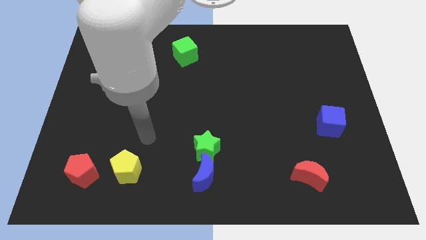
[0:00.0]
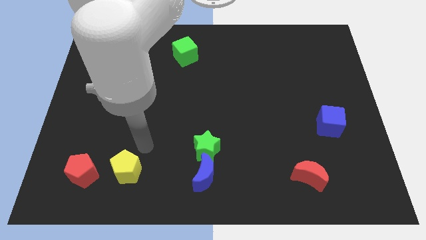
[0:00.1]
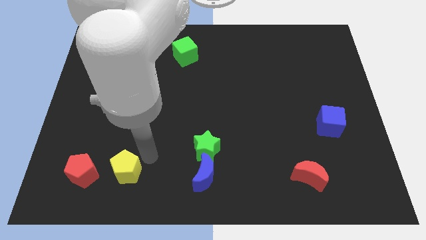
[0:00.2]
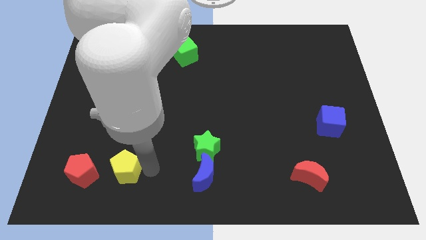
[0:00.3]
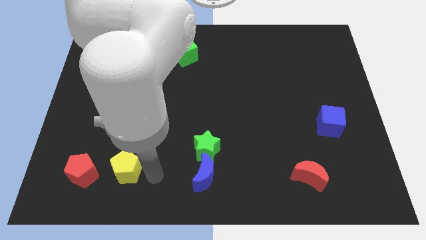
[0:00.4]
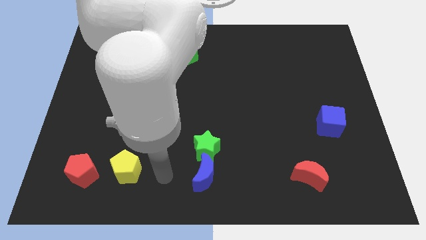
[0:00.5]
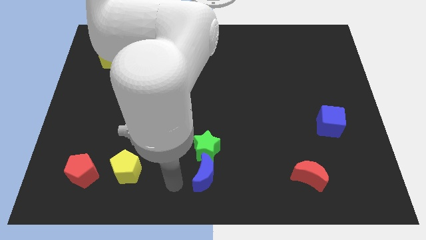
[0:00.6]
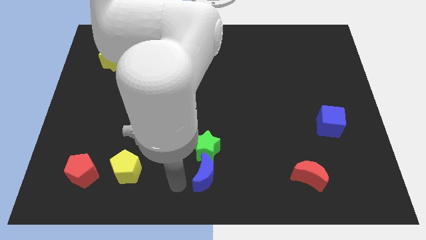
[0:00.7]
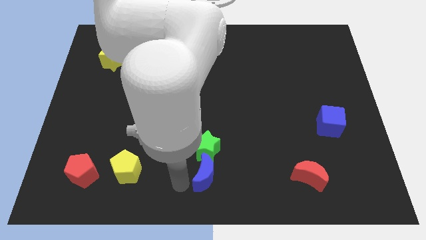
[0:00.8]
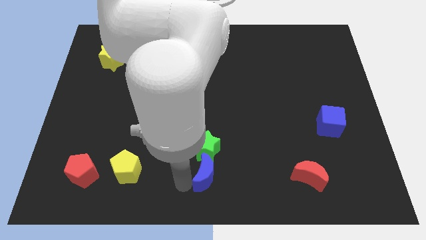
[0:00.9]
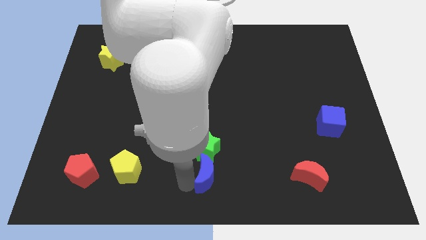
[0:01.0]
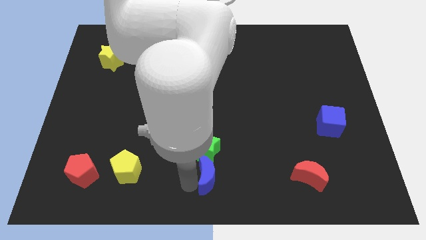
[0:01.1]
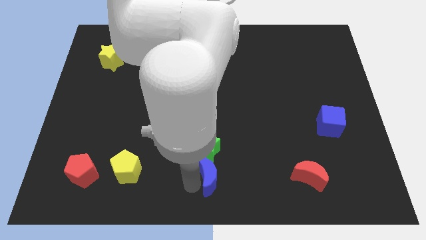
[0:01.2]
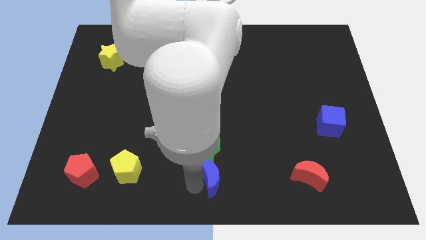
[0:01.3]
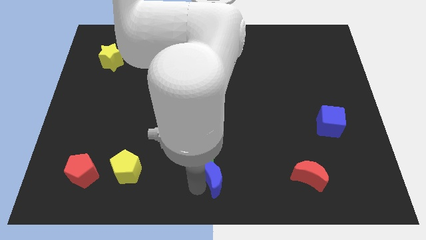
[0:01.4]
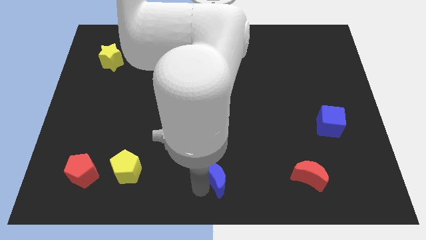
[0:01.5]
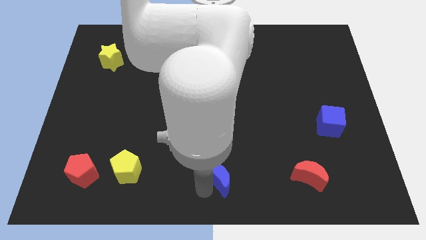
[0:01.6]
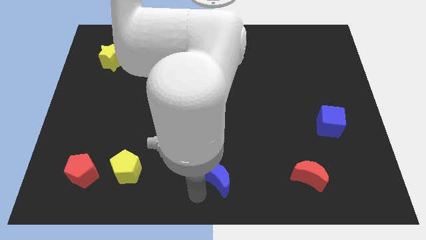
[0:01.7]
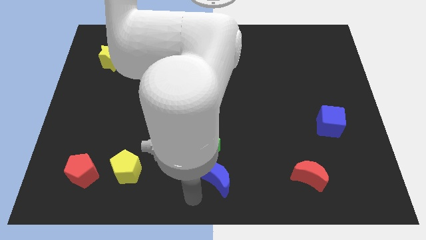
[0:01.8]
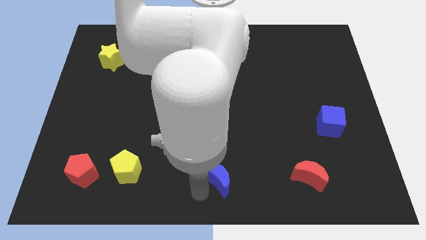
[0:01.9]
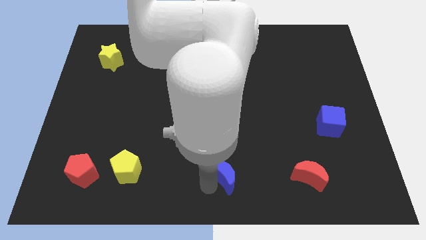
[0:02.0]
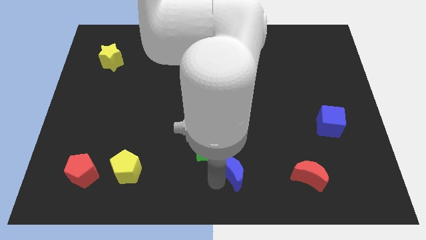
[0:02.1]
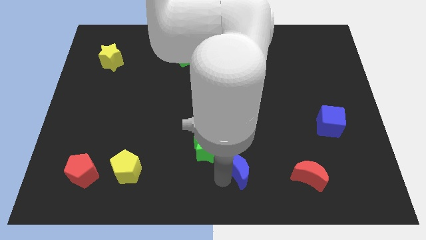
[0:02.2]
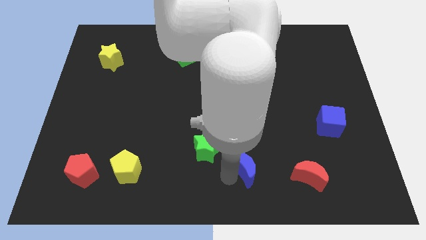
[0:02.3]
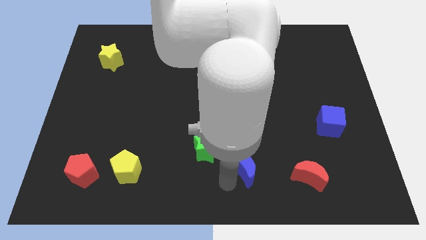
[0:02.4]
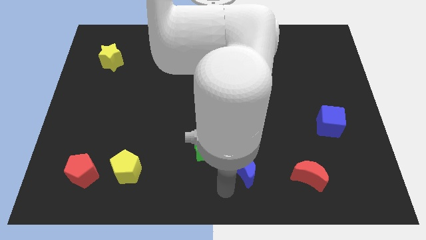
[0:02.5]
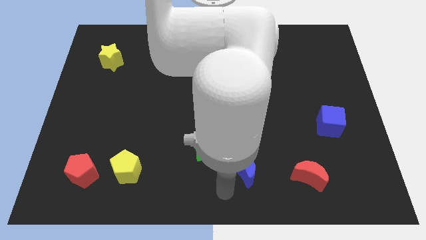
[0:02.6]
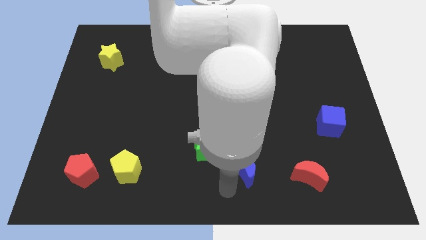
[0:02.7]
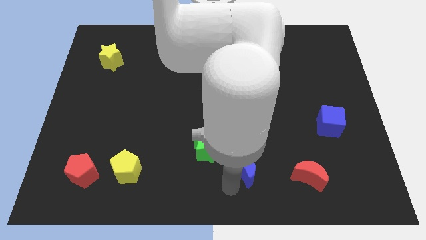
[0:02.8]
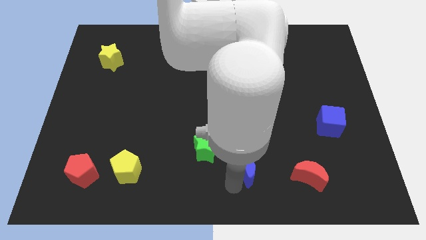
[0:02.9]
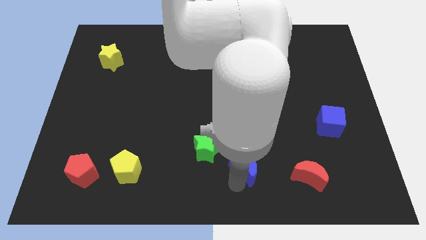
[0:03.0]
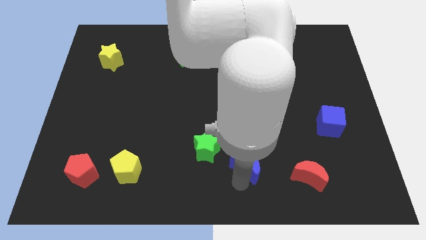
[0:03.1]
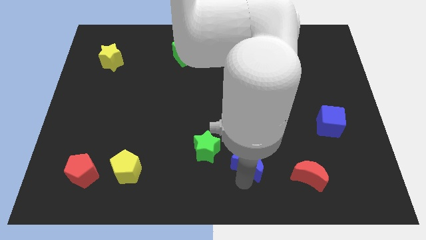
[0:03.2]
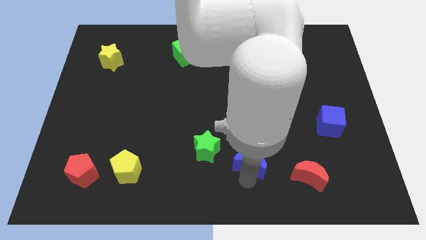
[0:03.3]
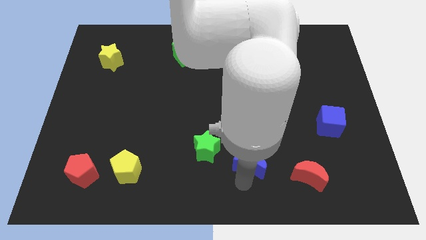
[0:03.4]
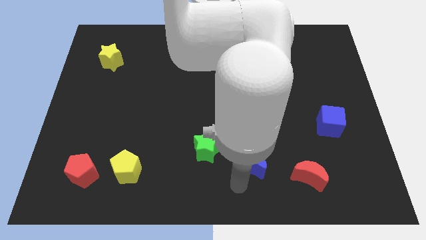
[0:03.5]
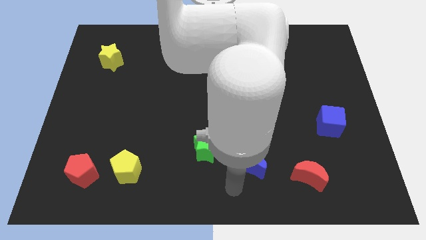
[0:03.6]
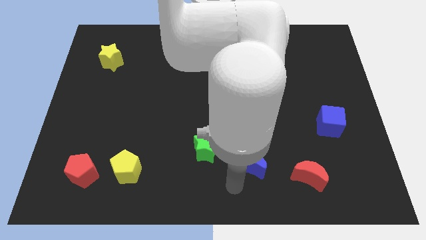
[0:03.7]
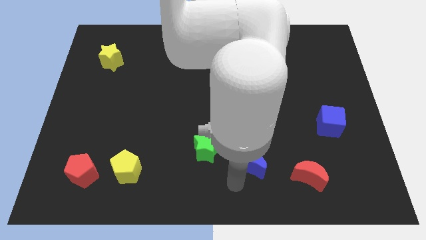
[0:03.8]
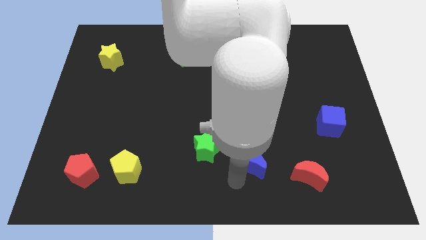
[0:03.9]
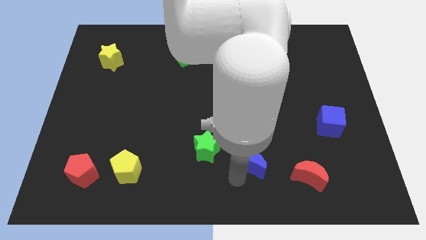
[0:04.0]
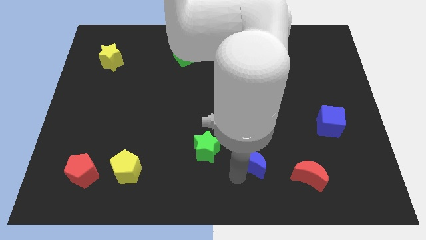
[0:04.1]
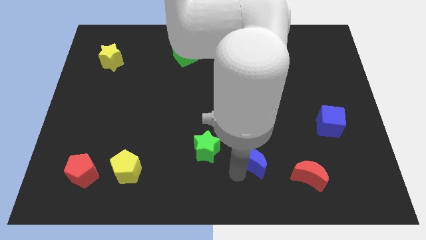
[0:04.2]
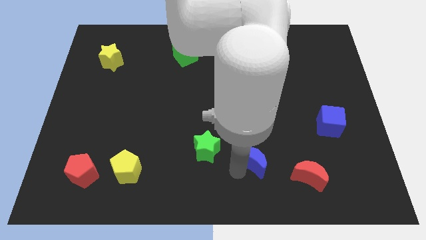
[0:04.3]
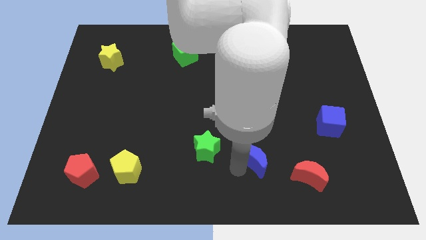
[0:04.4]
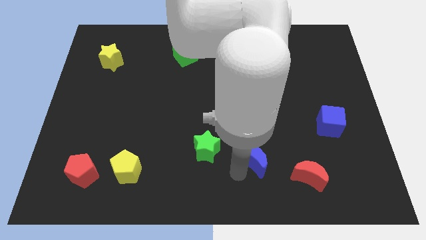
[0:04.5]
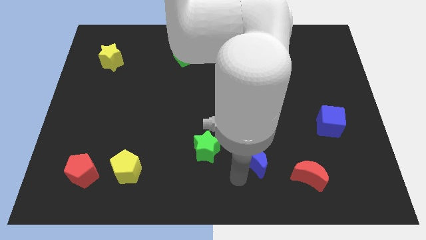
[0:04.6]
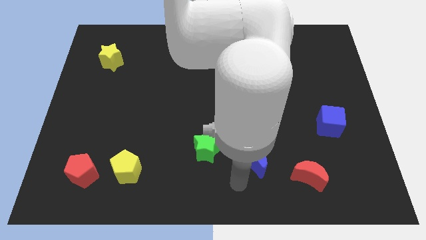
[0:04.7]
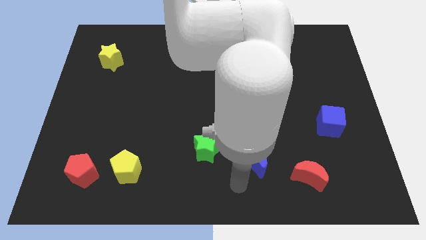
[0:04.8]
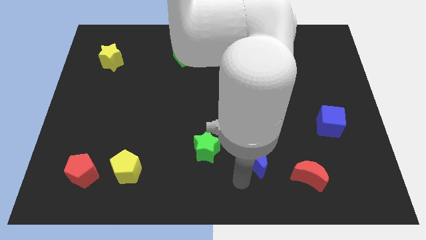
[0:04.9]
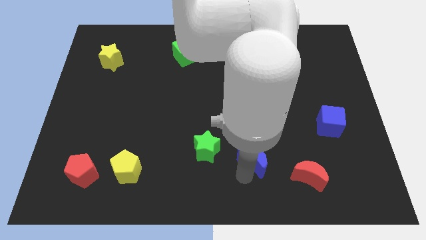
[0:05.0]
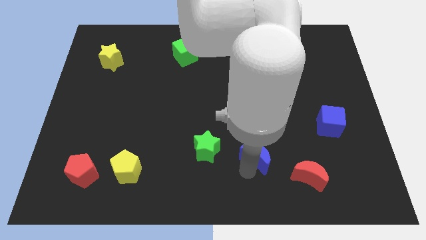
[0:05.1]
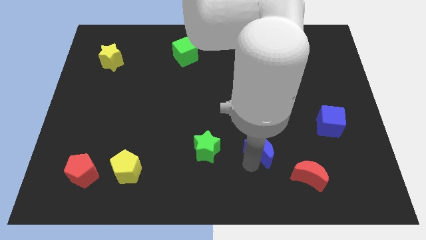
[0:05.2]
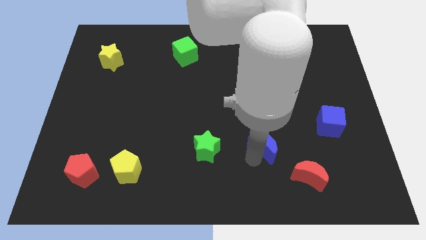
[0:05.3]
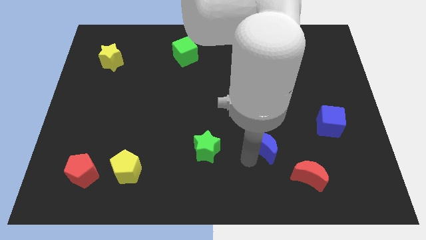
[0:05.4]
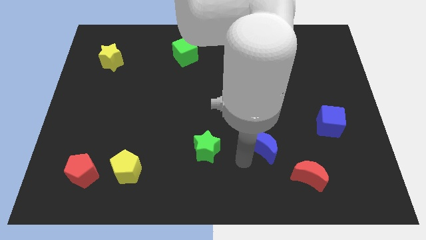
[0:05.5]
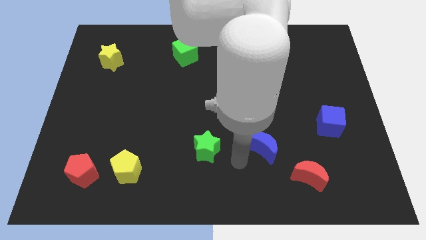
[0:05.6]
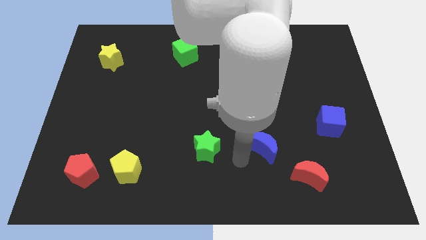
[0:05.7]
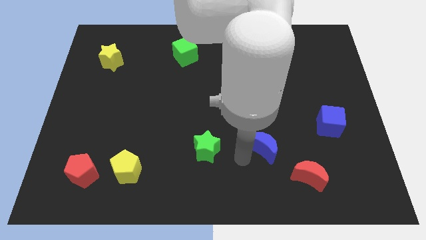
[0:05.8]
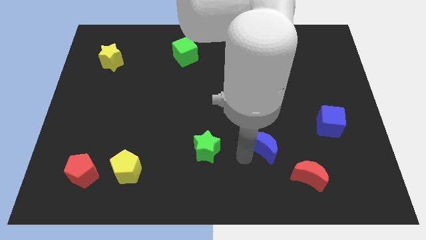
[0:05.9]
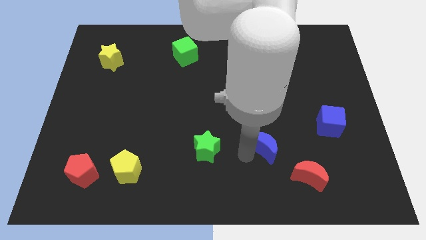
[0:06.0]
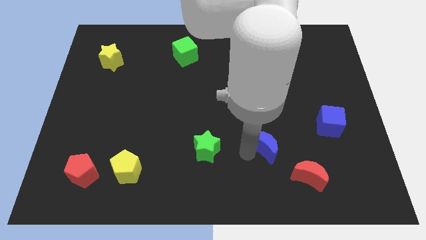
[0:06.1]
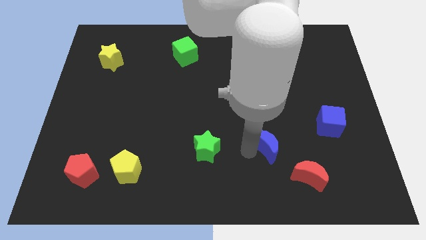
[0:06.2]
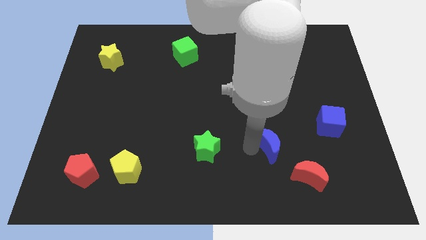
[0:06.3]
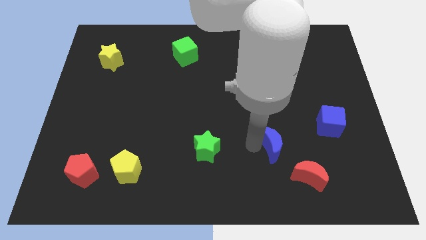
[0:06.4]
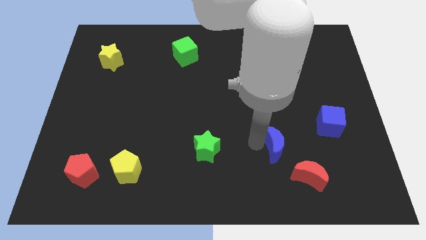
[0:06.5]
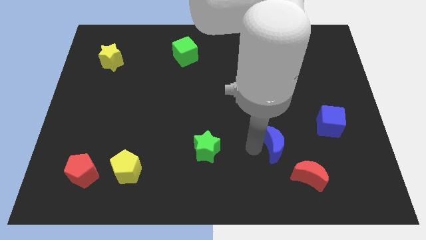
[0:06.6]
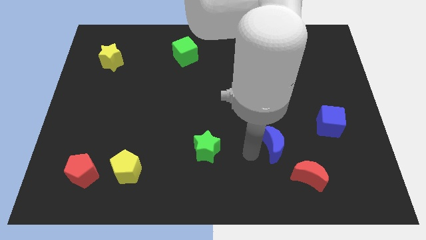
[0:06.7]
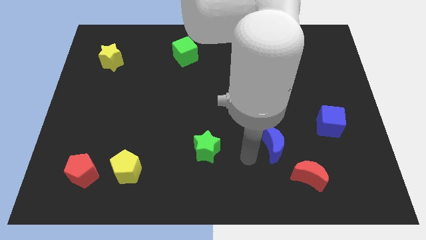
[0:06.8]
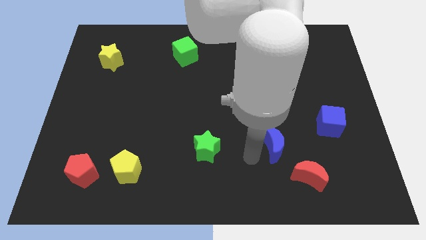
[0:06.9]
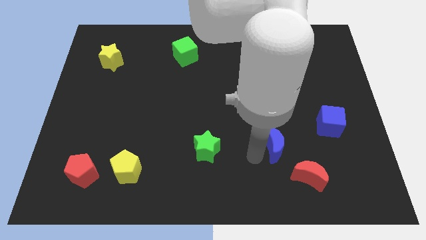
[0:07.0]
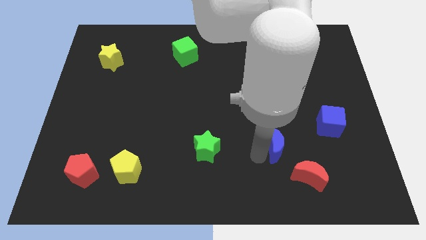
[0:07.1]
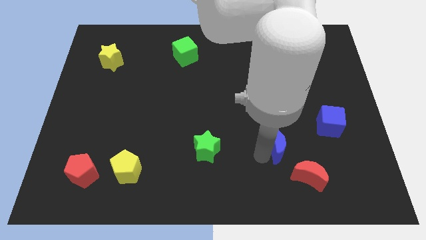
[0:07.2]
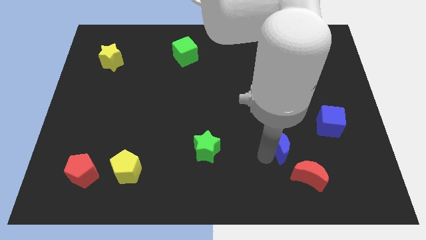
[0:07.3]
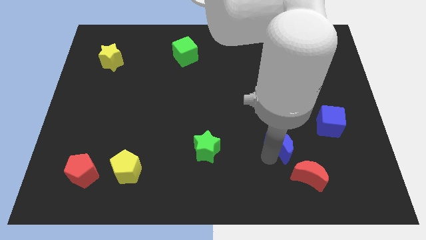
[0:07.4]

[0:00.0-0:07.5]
slide the blue moon to the top of the red moon
